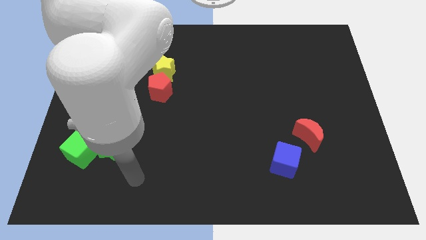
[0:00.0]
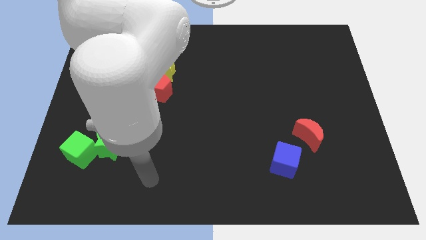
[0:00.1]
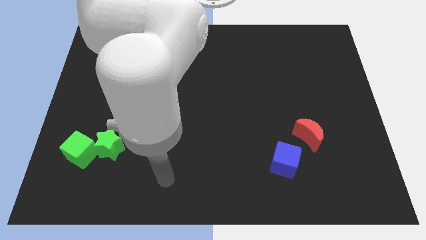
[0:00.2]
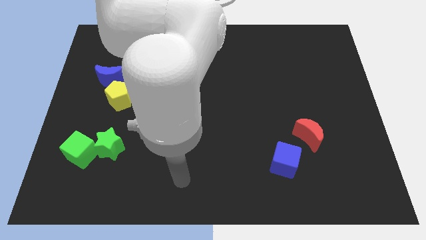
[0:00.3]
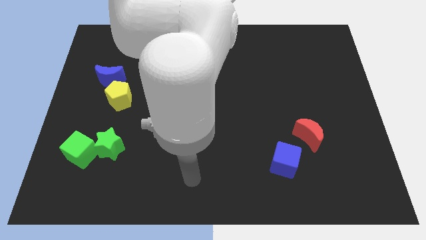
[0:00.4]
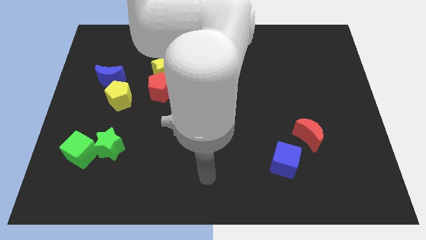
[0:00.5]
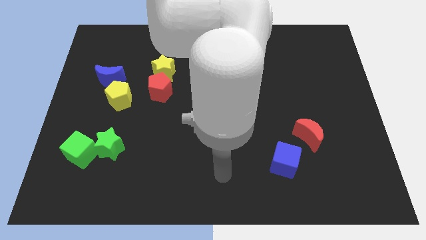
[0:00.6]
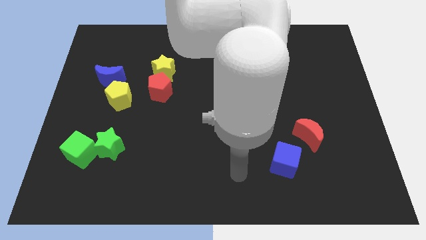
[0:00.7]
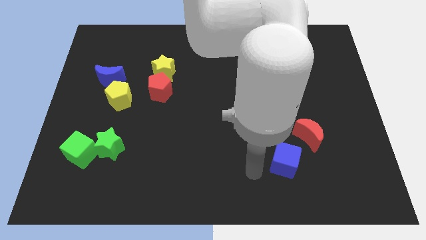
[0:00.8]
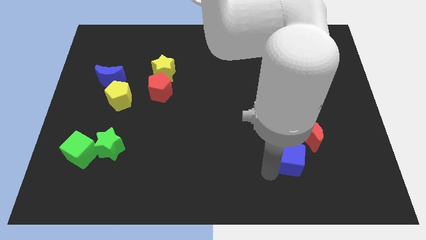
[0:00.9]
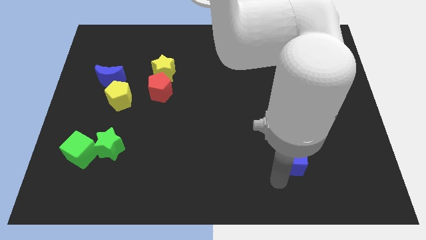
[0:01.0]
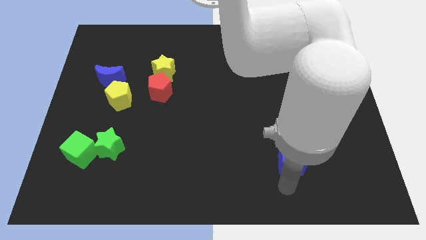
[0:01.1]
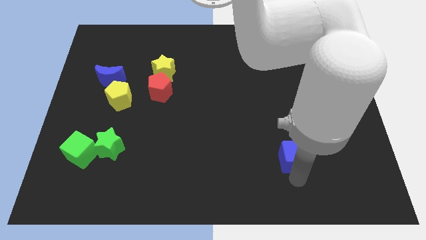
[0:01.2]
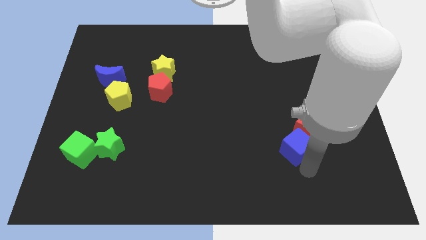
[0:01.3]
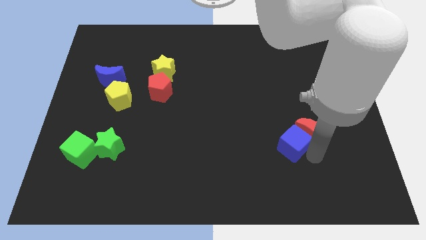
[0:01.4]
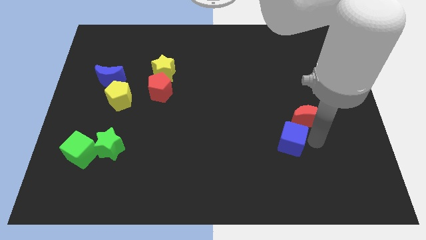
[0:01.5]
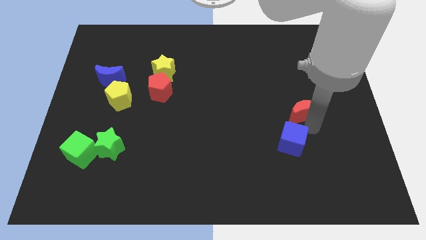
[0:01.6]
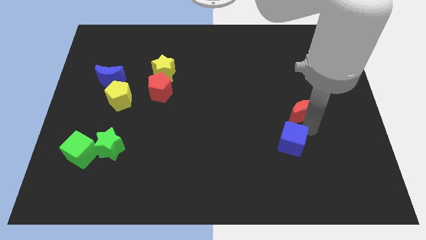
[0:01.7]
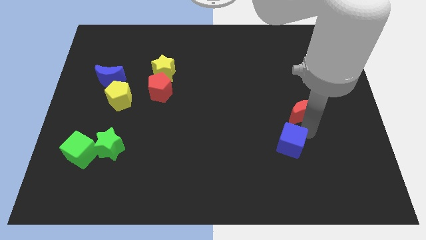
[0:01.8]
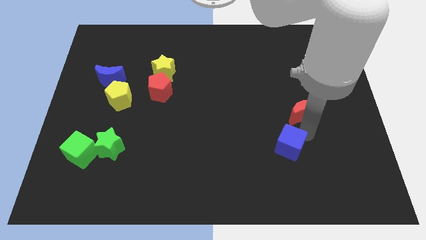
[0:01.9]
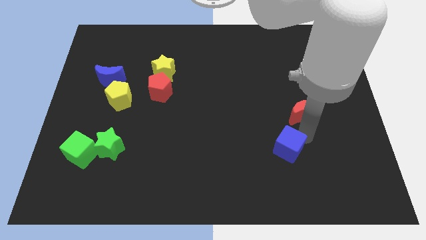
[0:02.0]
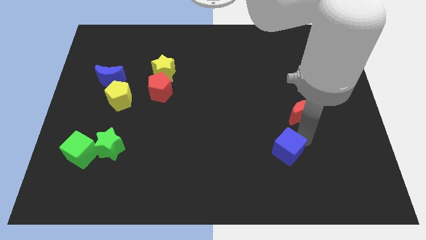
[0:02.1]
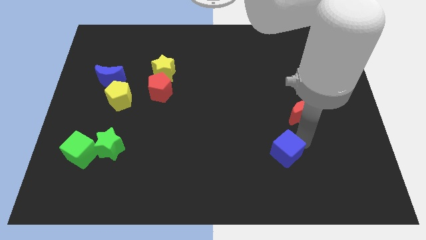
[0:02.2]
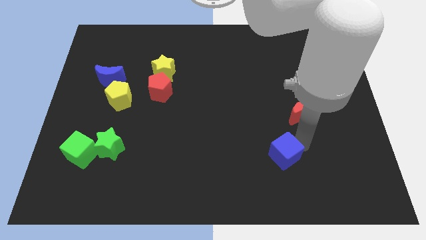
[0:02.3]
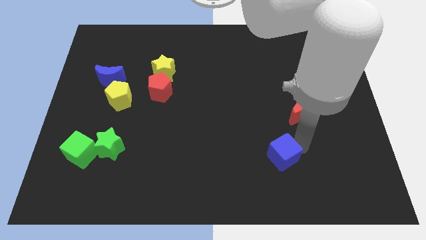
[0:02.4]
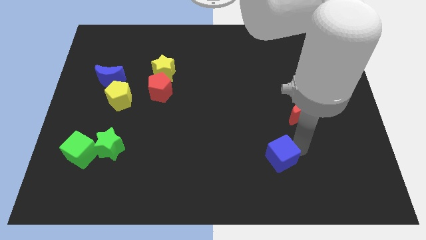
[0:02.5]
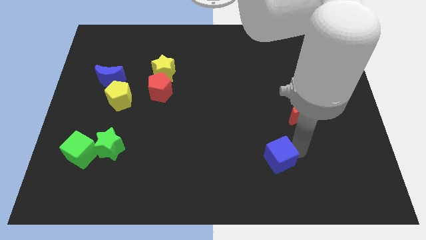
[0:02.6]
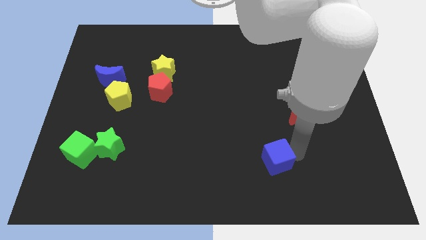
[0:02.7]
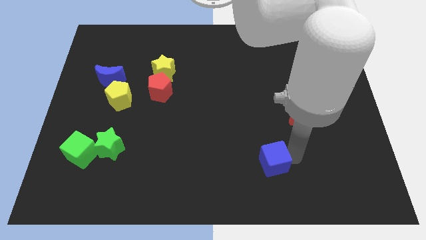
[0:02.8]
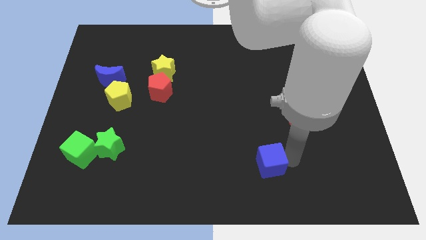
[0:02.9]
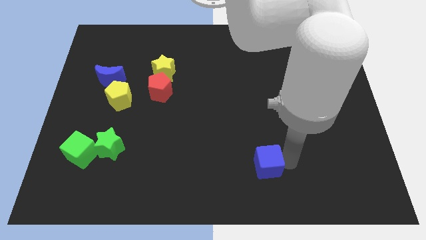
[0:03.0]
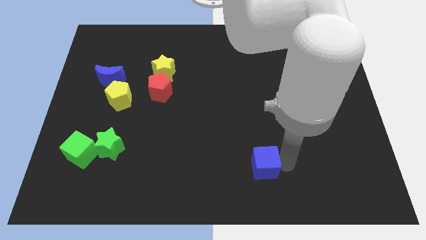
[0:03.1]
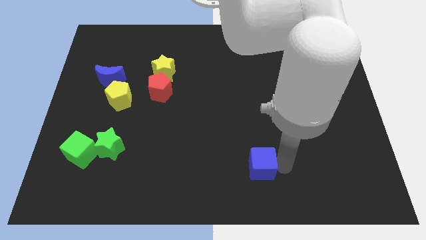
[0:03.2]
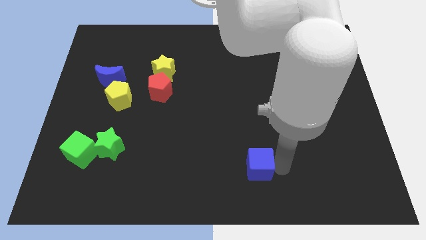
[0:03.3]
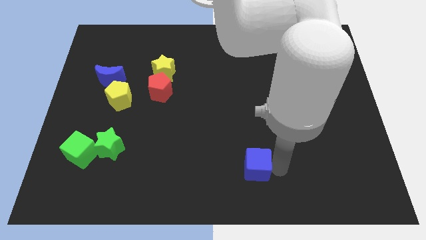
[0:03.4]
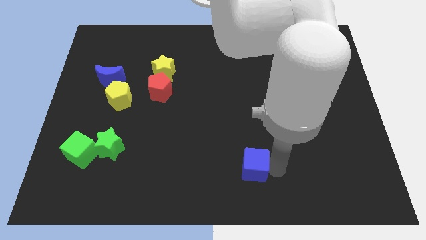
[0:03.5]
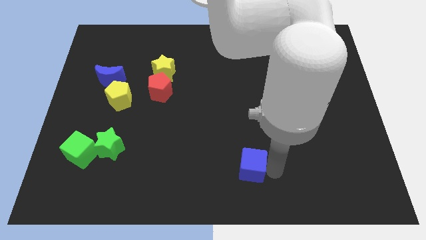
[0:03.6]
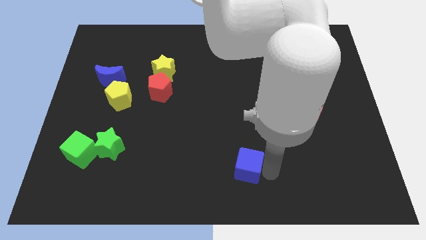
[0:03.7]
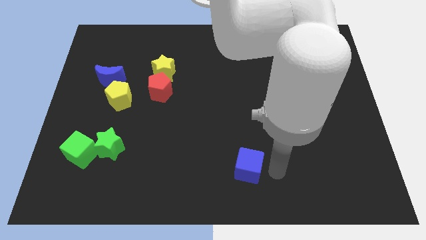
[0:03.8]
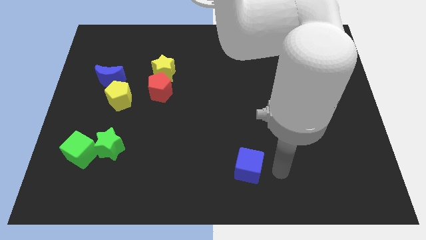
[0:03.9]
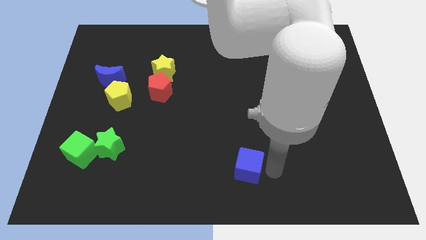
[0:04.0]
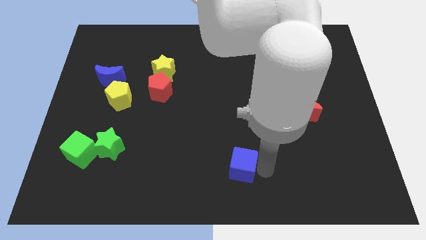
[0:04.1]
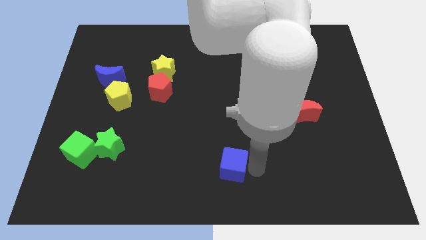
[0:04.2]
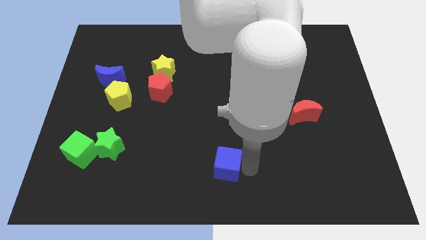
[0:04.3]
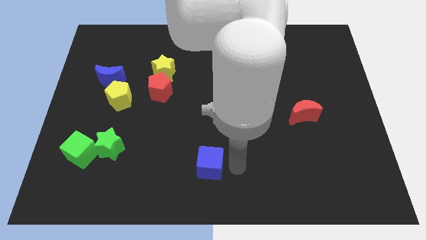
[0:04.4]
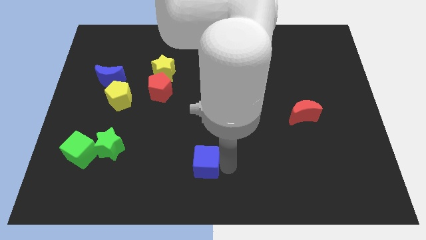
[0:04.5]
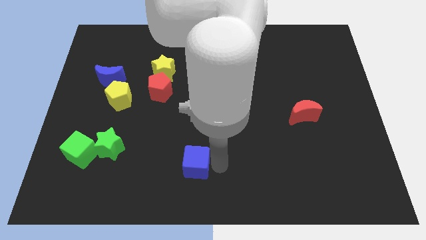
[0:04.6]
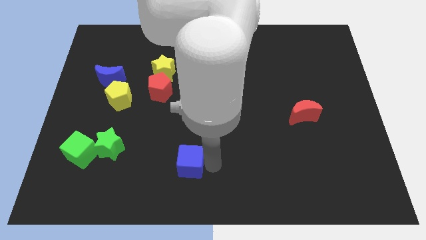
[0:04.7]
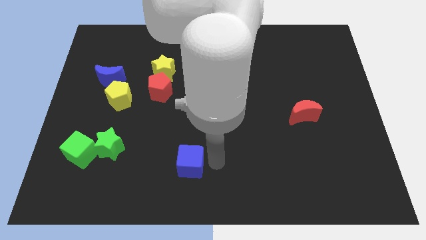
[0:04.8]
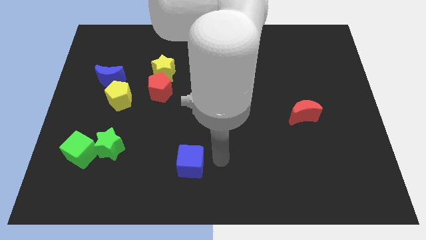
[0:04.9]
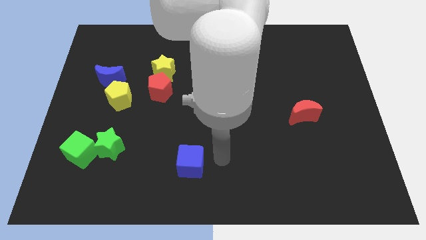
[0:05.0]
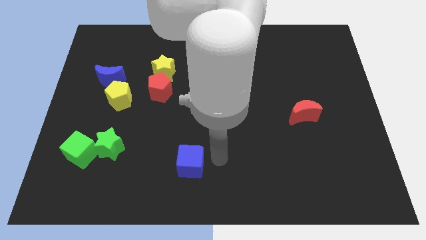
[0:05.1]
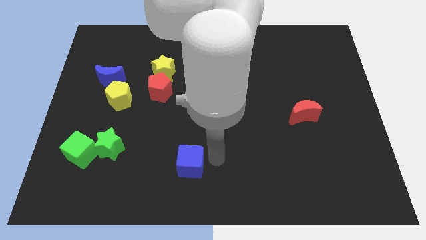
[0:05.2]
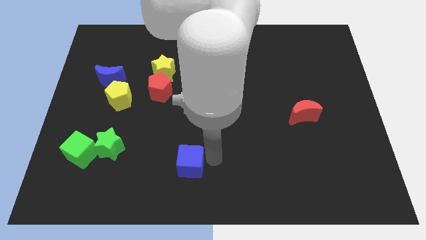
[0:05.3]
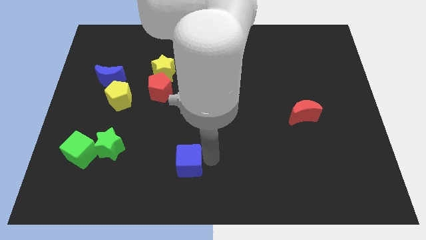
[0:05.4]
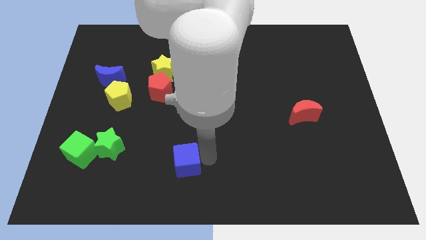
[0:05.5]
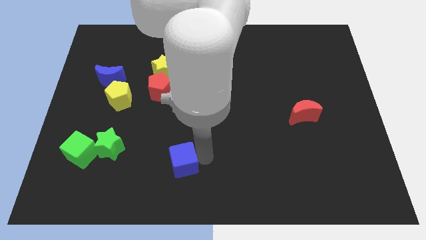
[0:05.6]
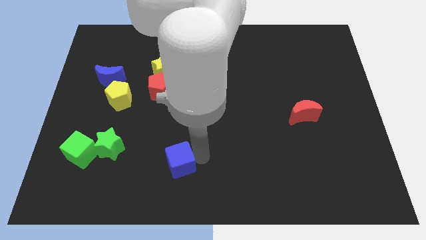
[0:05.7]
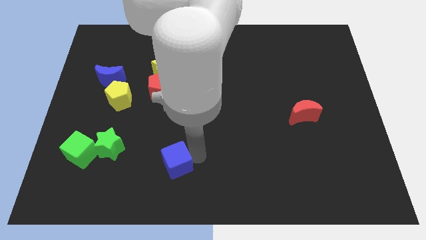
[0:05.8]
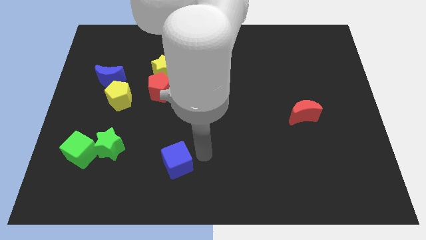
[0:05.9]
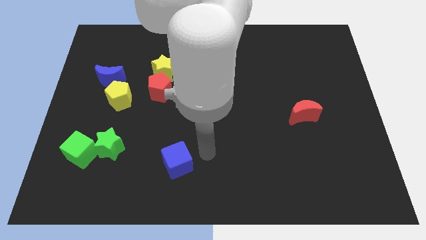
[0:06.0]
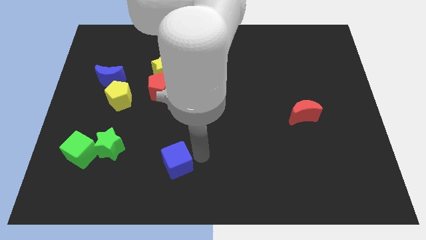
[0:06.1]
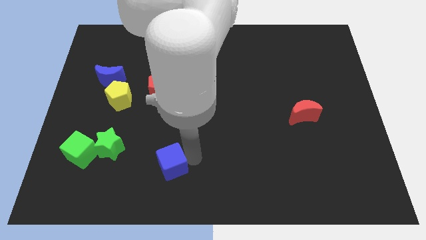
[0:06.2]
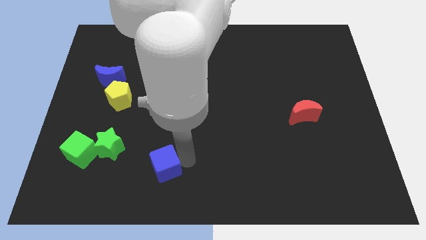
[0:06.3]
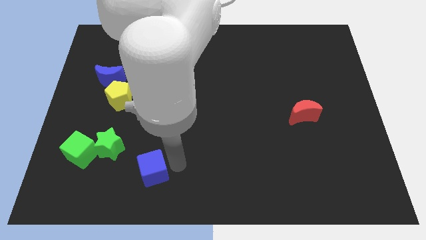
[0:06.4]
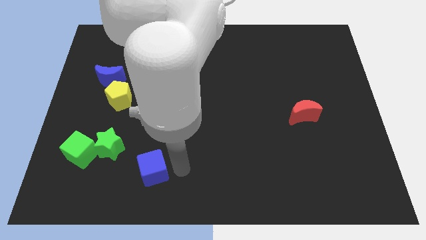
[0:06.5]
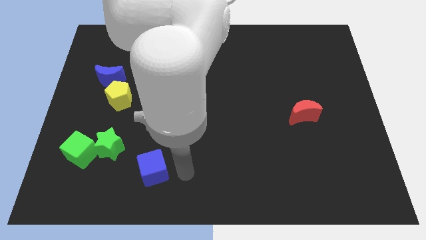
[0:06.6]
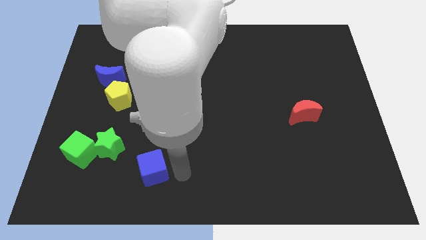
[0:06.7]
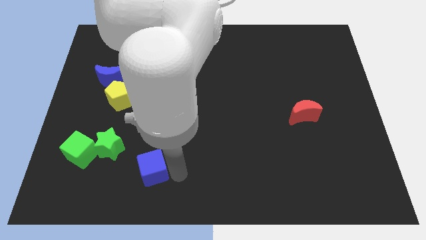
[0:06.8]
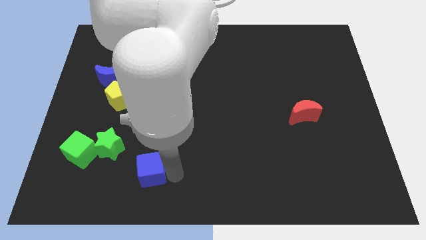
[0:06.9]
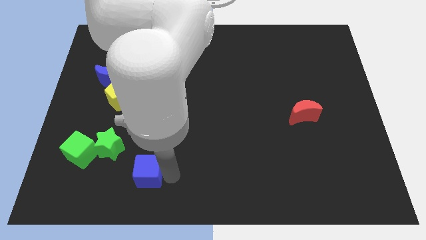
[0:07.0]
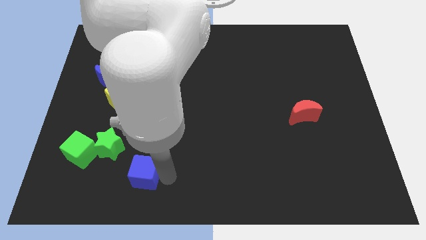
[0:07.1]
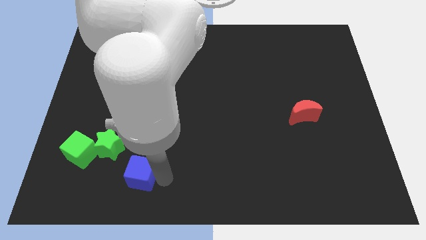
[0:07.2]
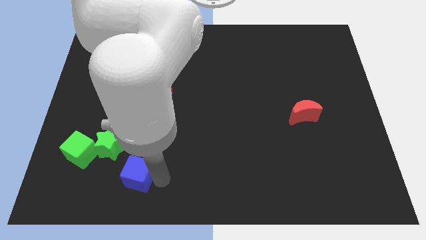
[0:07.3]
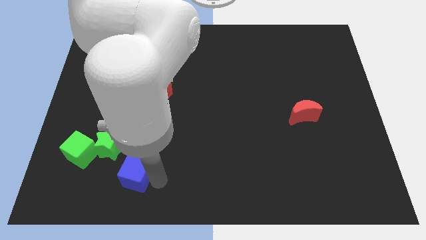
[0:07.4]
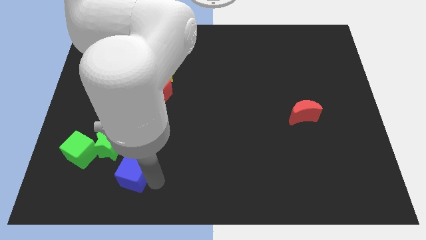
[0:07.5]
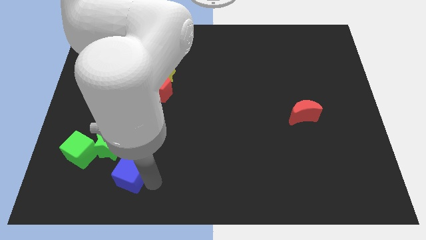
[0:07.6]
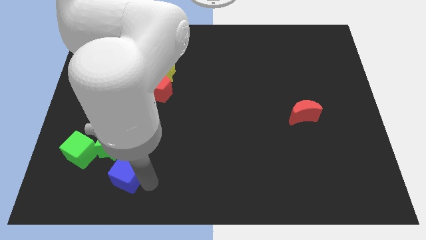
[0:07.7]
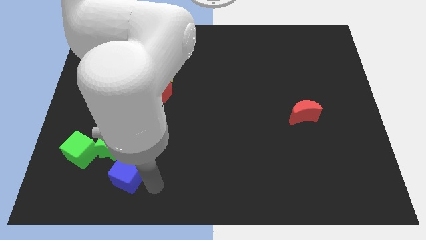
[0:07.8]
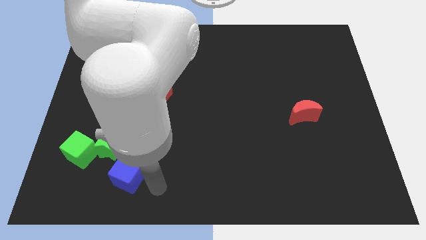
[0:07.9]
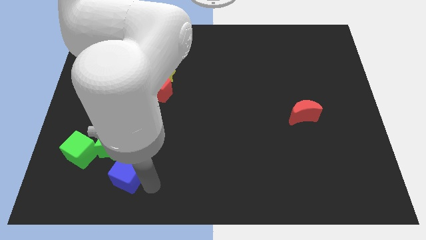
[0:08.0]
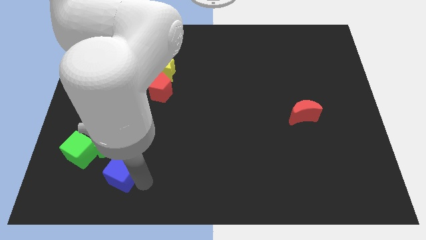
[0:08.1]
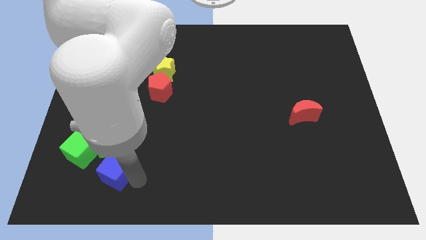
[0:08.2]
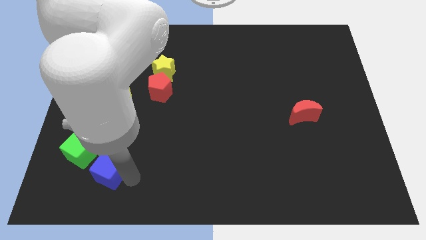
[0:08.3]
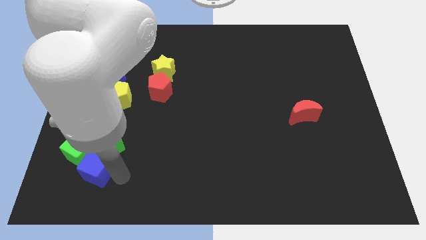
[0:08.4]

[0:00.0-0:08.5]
slide the blue cube next to the green cube
